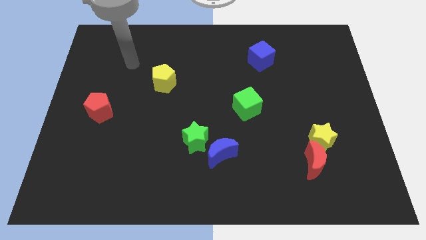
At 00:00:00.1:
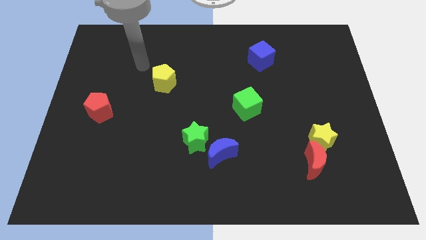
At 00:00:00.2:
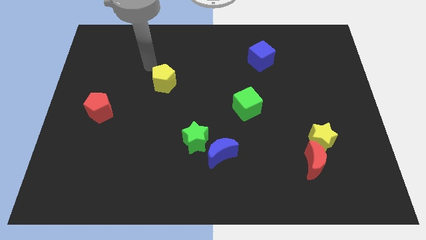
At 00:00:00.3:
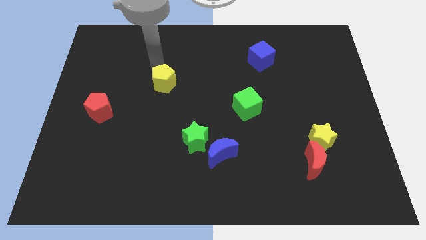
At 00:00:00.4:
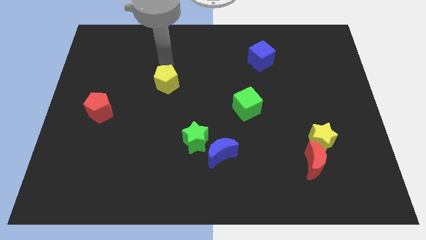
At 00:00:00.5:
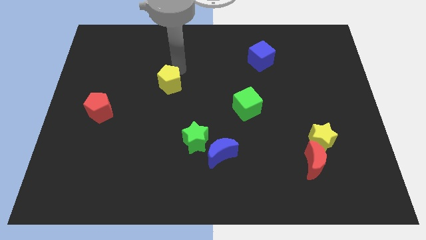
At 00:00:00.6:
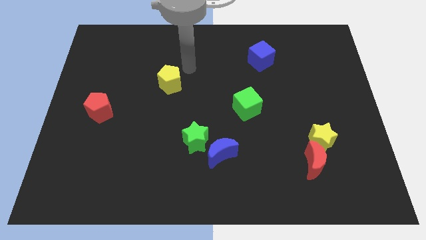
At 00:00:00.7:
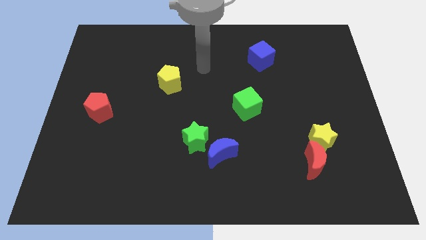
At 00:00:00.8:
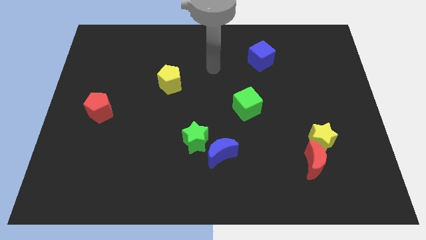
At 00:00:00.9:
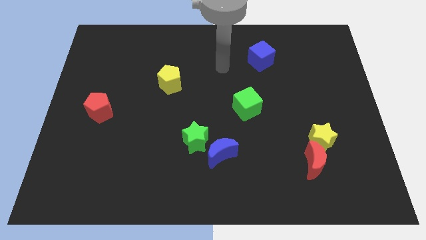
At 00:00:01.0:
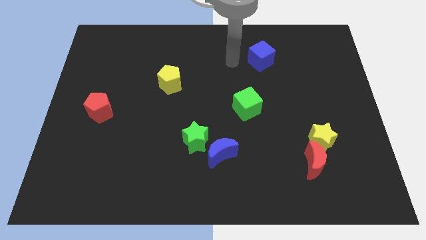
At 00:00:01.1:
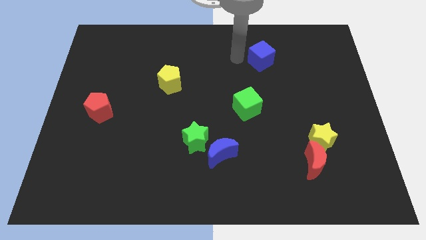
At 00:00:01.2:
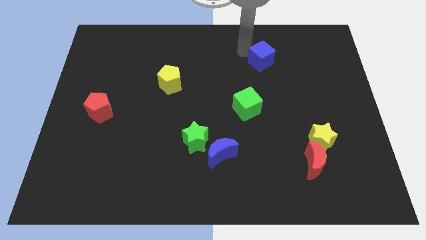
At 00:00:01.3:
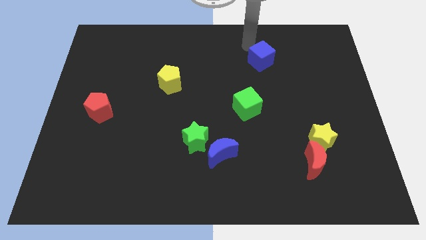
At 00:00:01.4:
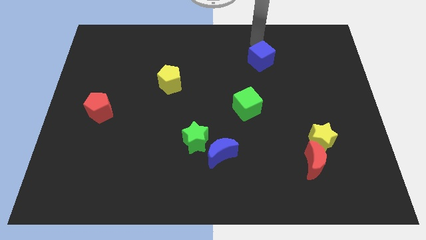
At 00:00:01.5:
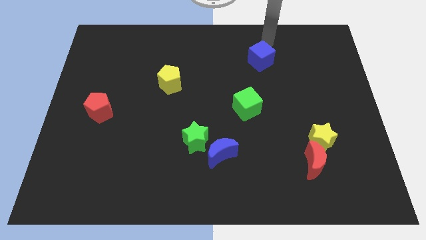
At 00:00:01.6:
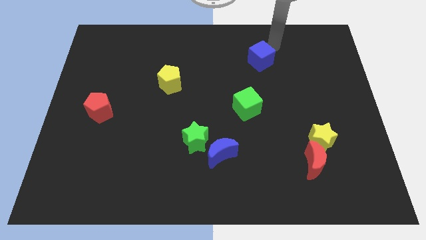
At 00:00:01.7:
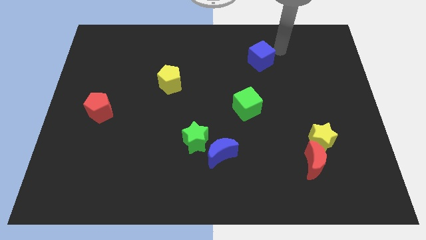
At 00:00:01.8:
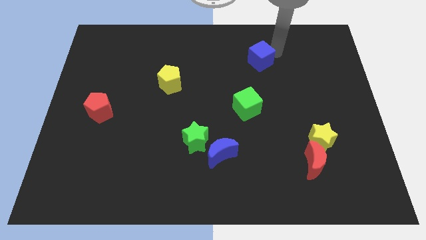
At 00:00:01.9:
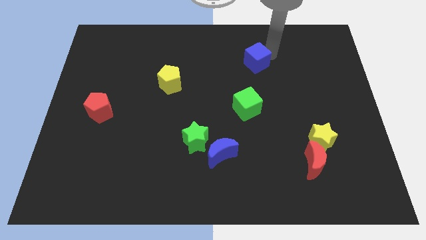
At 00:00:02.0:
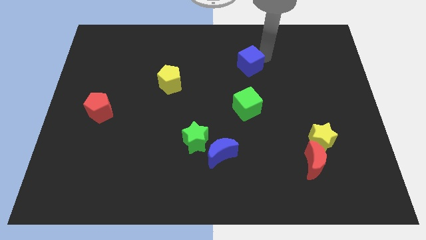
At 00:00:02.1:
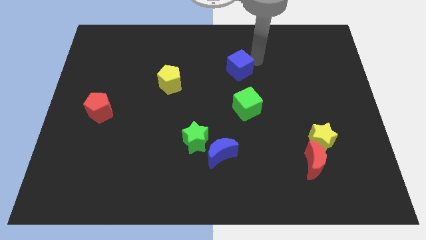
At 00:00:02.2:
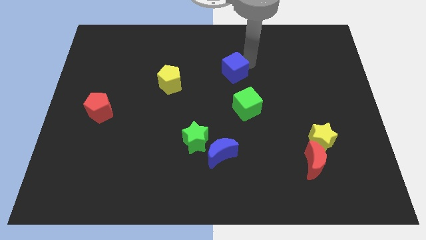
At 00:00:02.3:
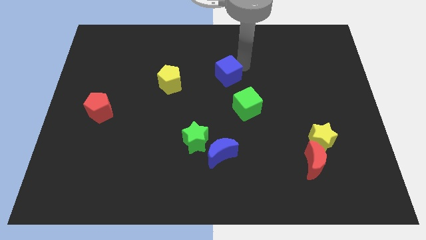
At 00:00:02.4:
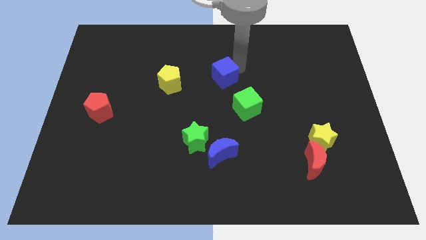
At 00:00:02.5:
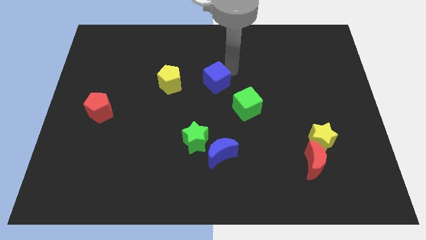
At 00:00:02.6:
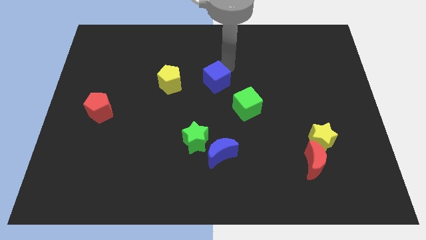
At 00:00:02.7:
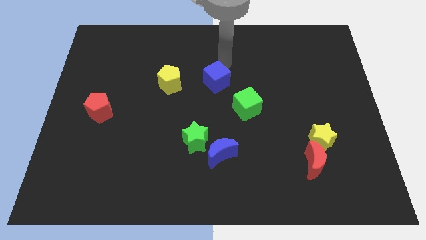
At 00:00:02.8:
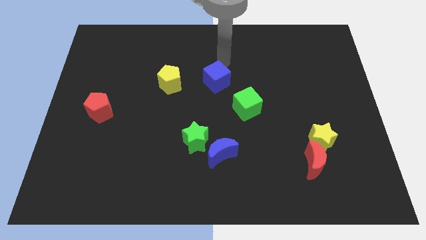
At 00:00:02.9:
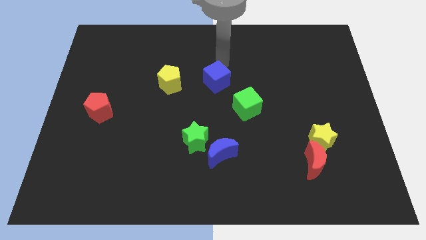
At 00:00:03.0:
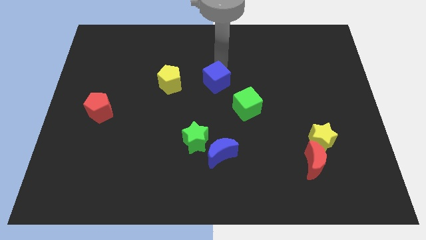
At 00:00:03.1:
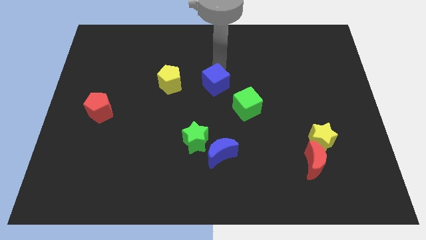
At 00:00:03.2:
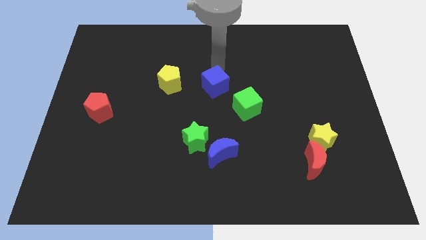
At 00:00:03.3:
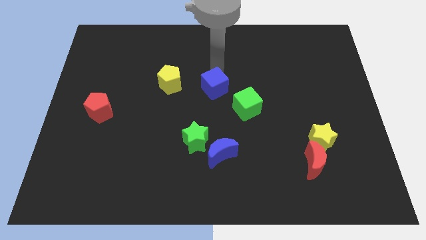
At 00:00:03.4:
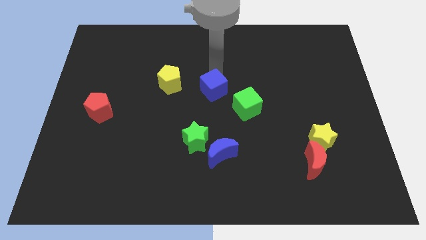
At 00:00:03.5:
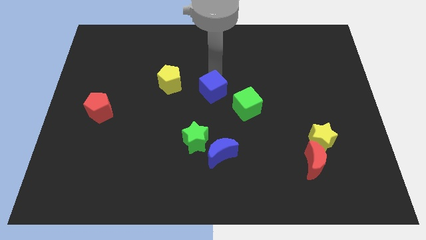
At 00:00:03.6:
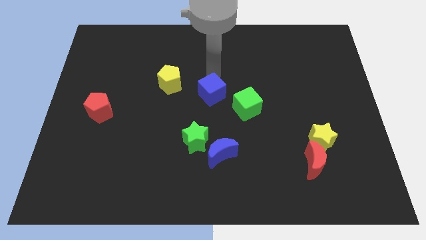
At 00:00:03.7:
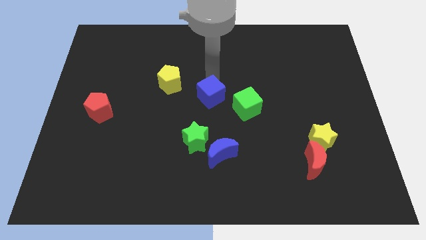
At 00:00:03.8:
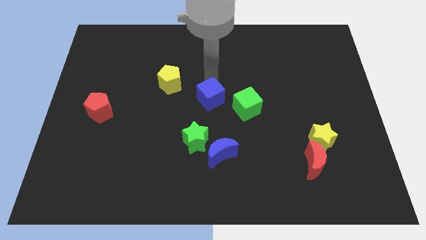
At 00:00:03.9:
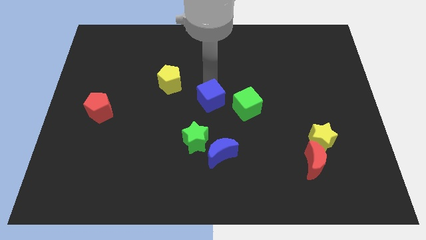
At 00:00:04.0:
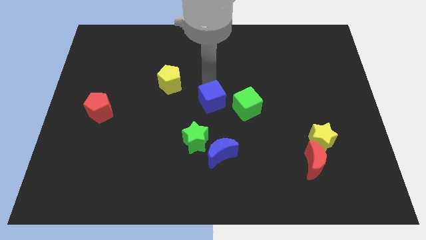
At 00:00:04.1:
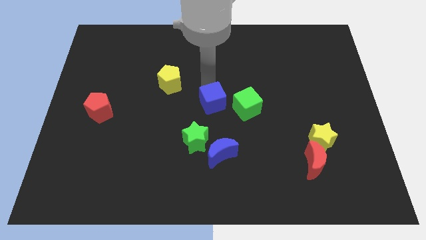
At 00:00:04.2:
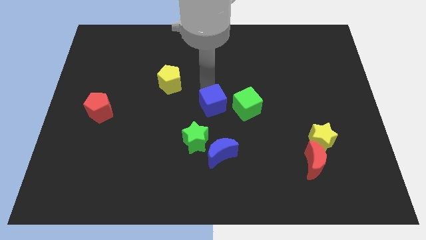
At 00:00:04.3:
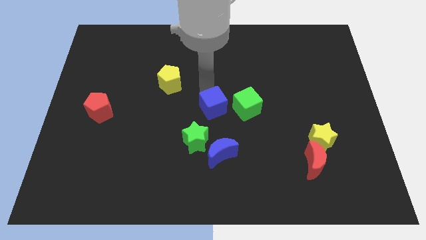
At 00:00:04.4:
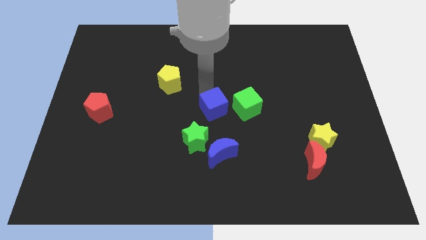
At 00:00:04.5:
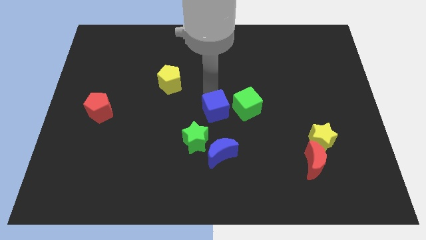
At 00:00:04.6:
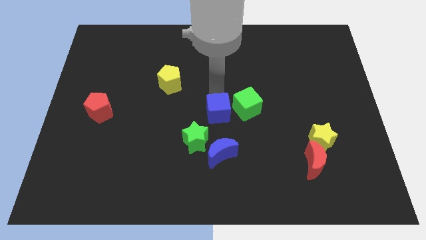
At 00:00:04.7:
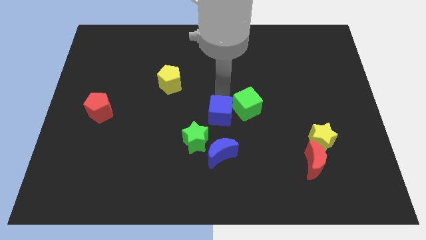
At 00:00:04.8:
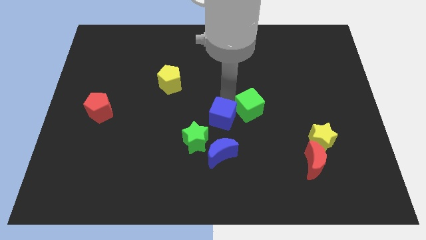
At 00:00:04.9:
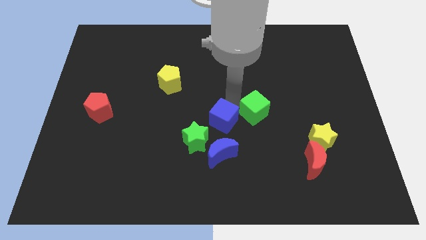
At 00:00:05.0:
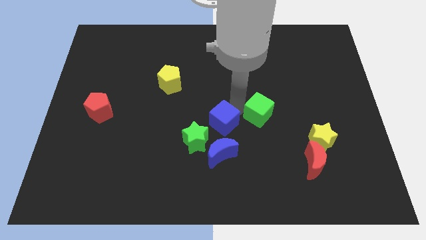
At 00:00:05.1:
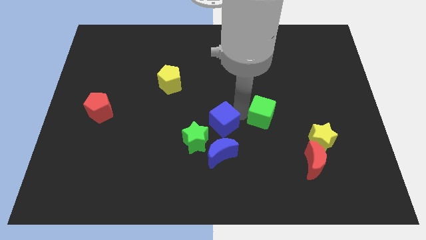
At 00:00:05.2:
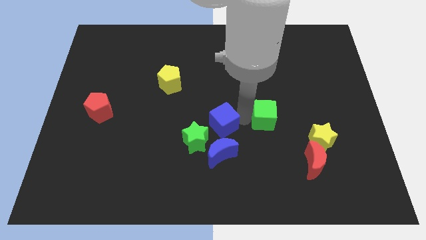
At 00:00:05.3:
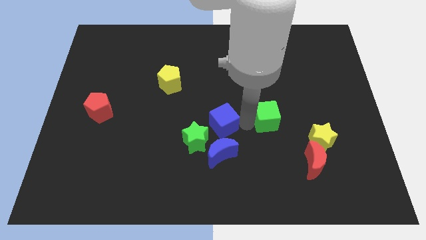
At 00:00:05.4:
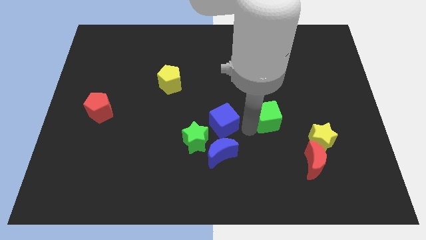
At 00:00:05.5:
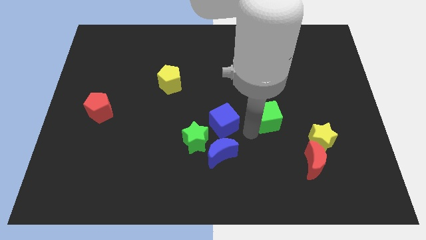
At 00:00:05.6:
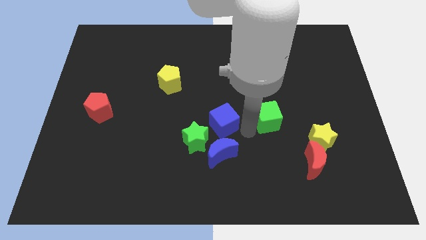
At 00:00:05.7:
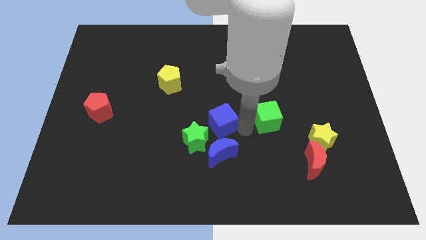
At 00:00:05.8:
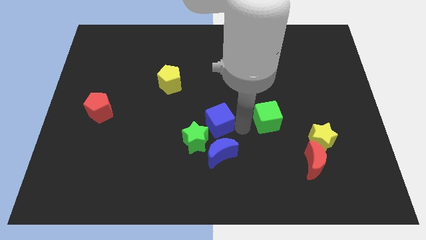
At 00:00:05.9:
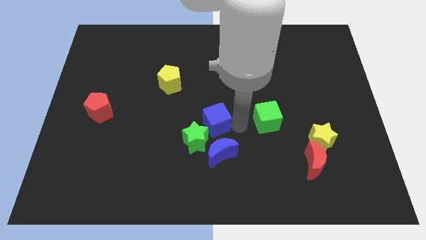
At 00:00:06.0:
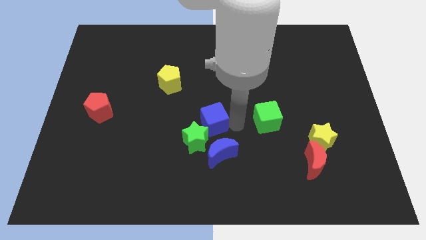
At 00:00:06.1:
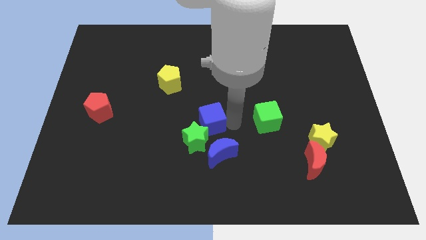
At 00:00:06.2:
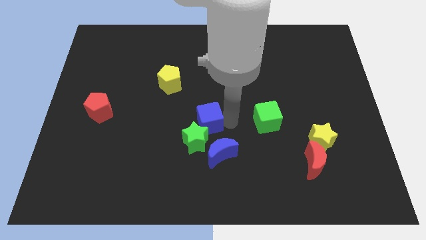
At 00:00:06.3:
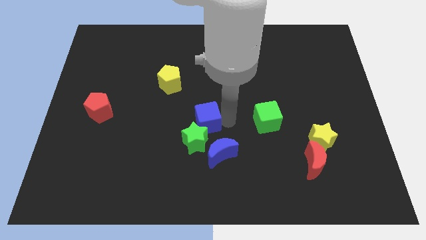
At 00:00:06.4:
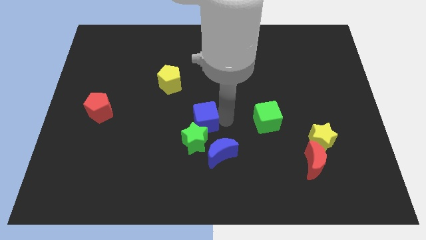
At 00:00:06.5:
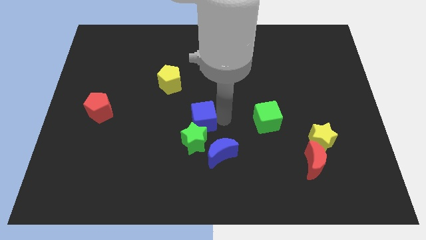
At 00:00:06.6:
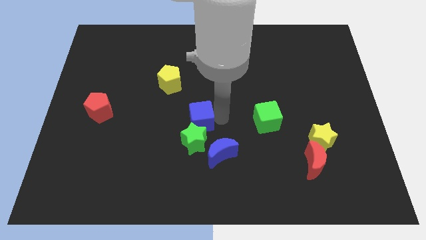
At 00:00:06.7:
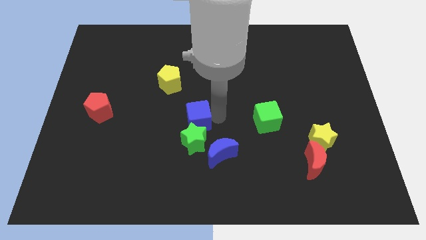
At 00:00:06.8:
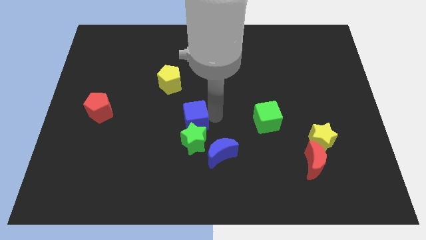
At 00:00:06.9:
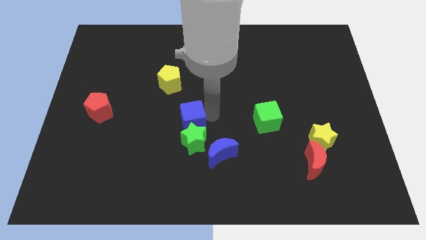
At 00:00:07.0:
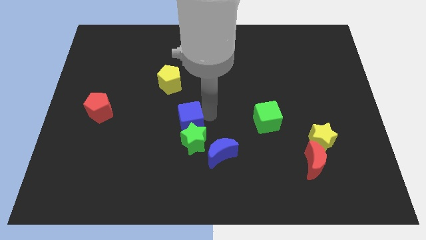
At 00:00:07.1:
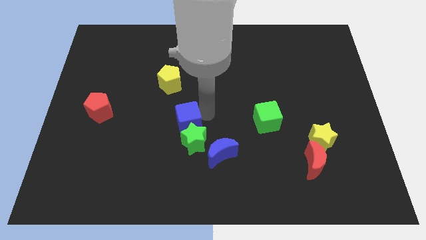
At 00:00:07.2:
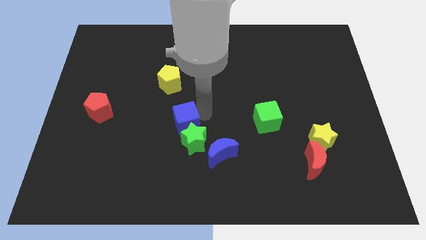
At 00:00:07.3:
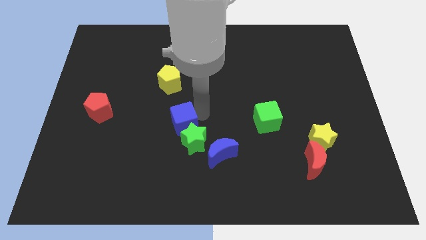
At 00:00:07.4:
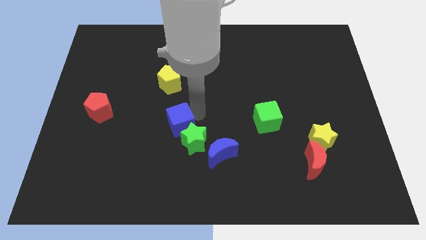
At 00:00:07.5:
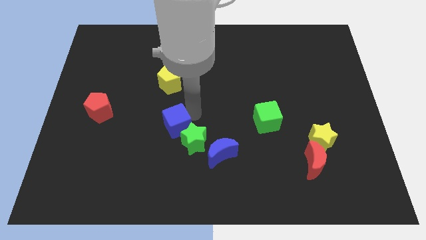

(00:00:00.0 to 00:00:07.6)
slide the blue cube to the left side of the green star
